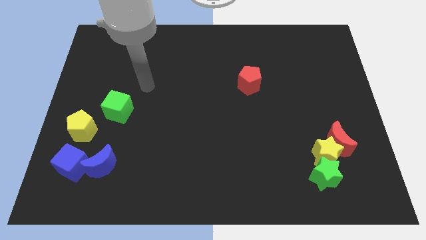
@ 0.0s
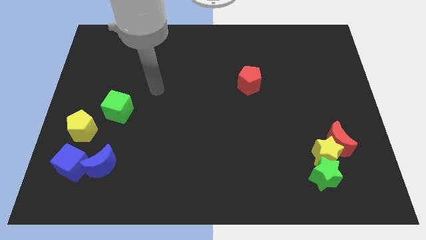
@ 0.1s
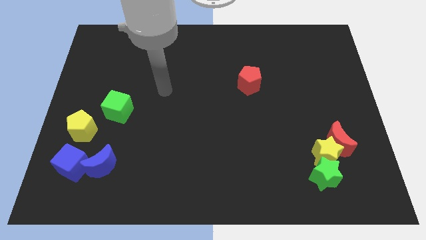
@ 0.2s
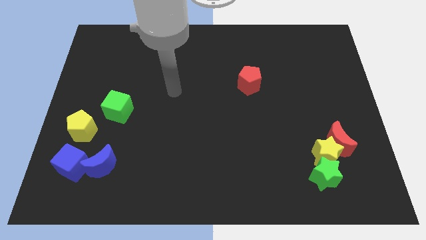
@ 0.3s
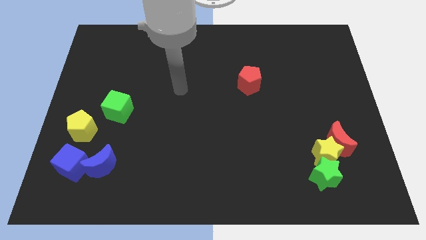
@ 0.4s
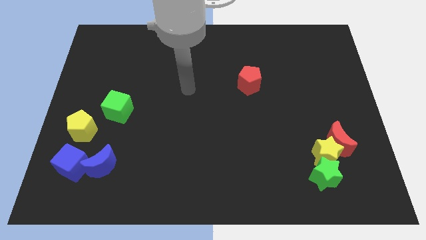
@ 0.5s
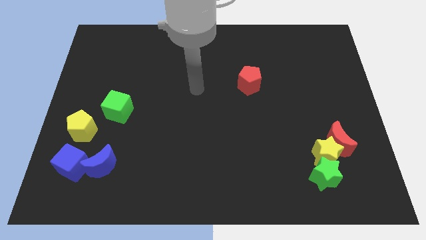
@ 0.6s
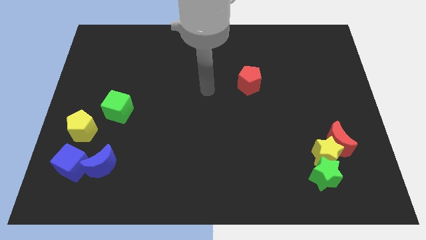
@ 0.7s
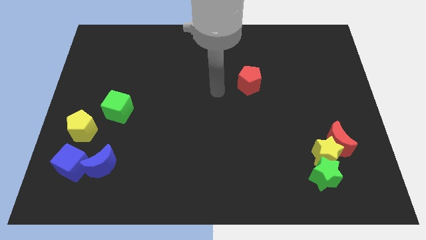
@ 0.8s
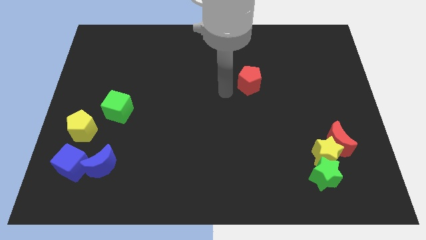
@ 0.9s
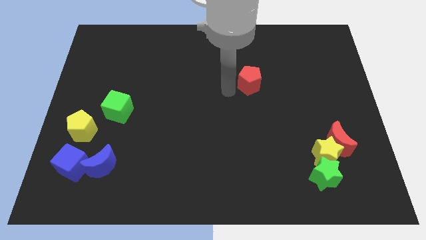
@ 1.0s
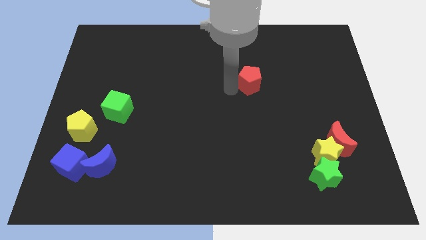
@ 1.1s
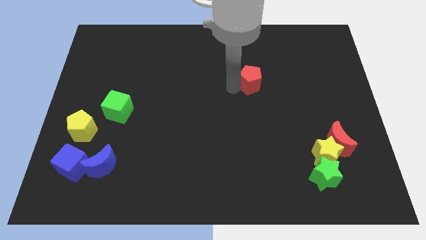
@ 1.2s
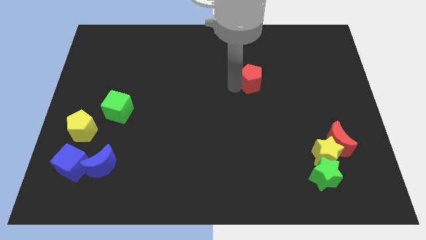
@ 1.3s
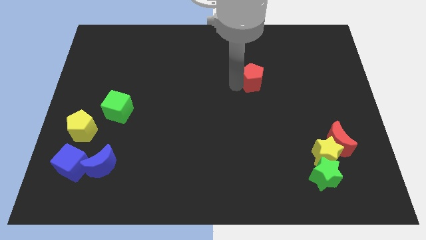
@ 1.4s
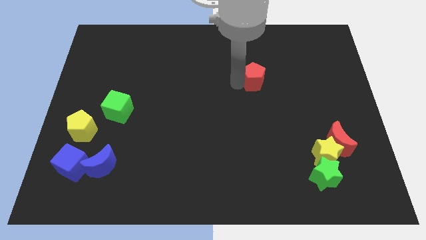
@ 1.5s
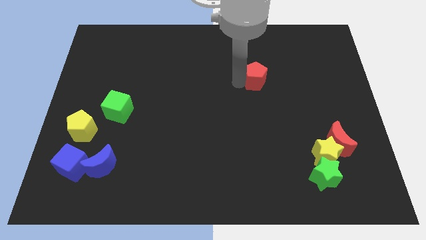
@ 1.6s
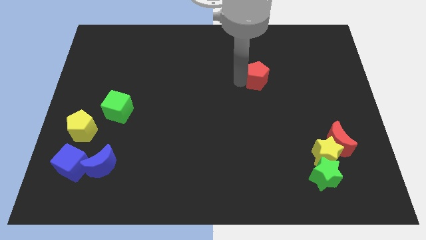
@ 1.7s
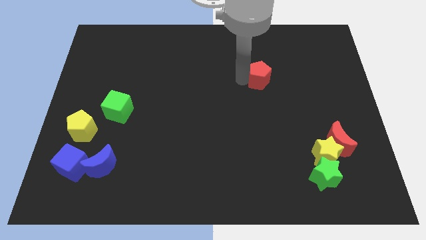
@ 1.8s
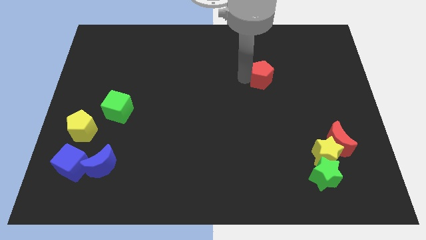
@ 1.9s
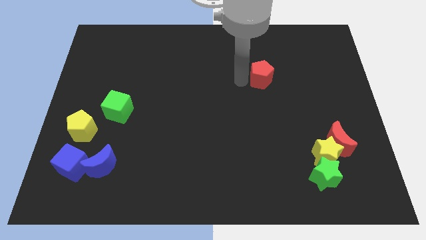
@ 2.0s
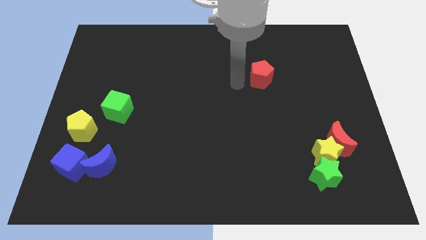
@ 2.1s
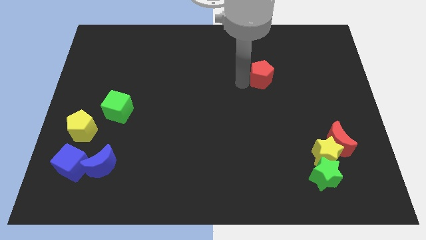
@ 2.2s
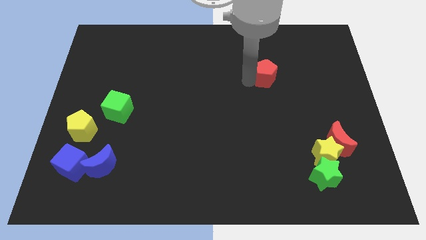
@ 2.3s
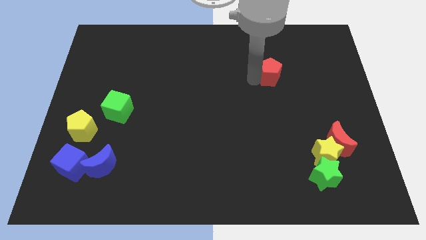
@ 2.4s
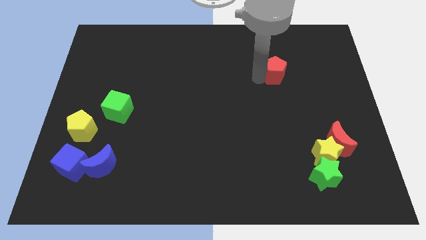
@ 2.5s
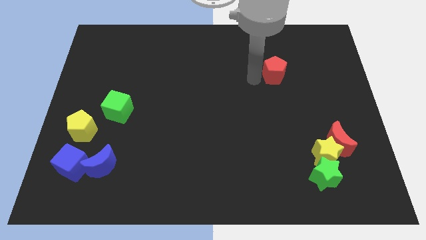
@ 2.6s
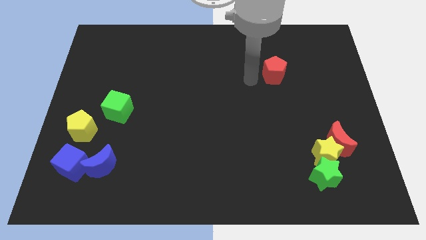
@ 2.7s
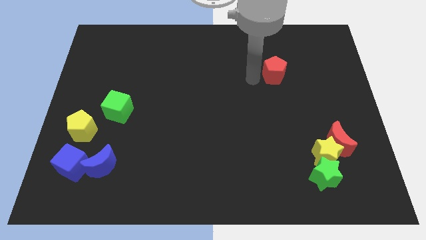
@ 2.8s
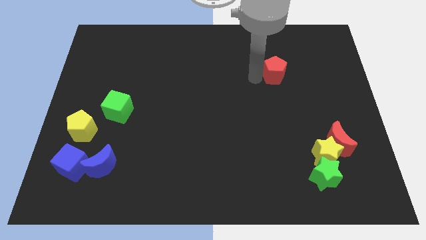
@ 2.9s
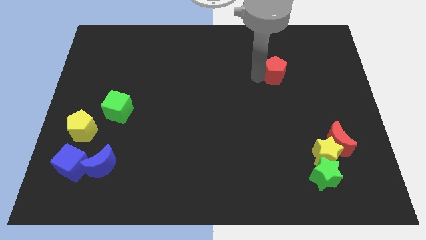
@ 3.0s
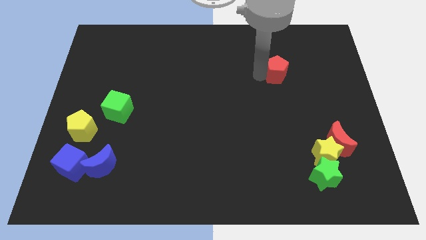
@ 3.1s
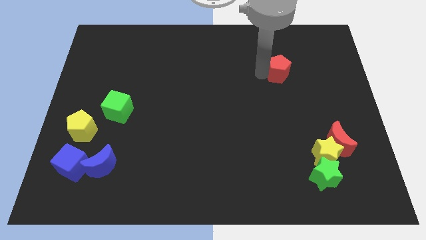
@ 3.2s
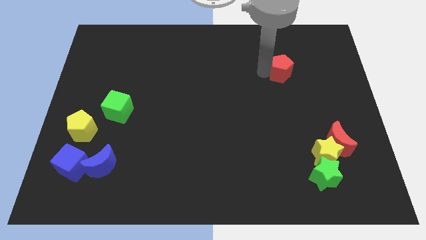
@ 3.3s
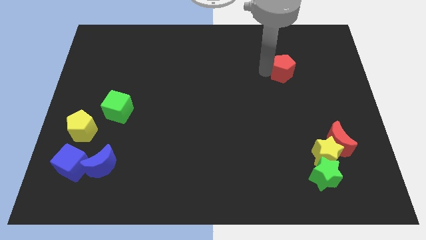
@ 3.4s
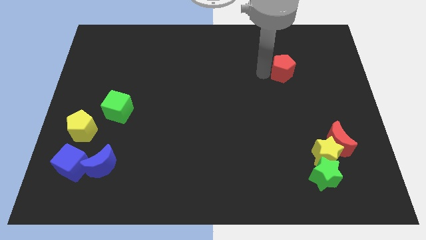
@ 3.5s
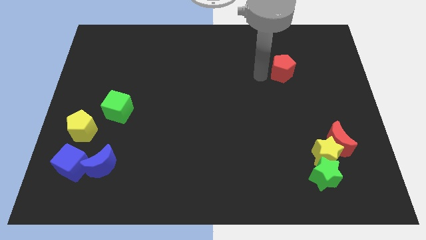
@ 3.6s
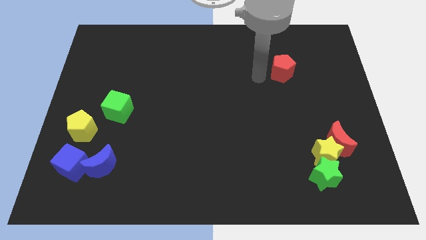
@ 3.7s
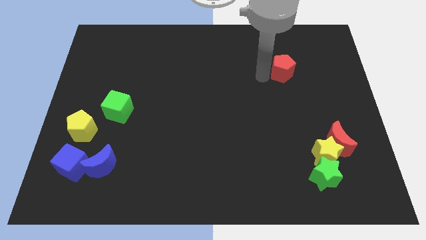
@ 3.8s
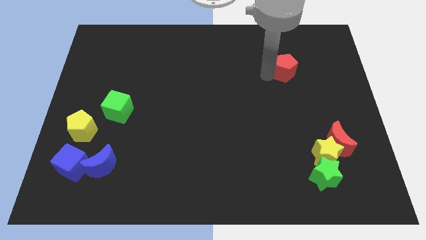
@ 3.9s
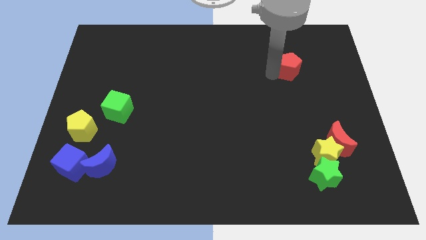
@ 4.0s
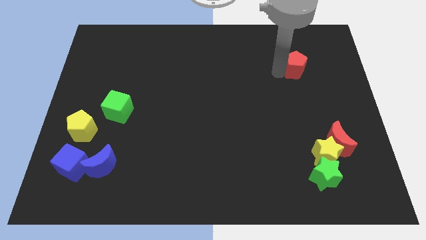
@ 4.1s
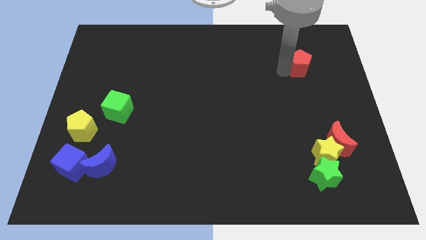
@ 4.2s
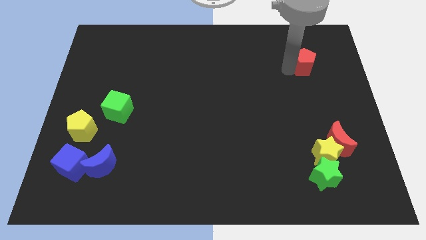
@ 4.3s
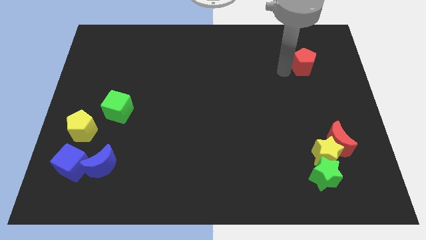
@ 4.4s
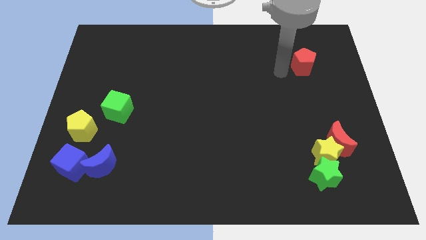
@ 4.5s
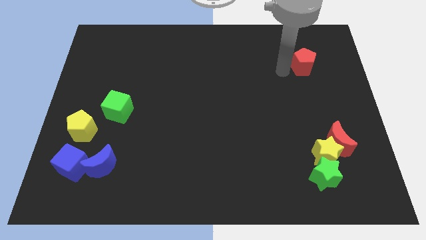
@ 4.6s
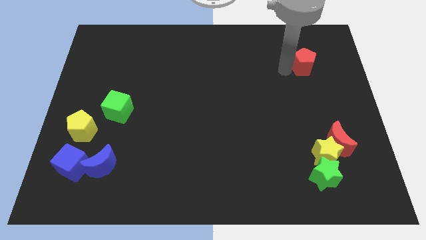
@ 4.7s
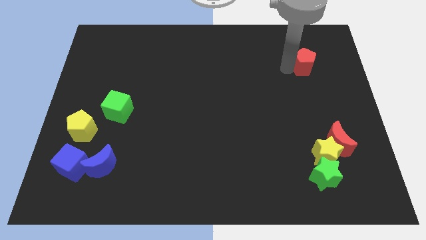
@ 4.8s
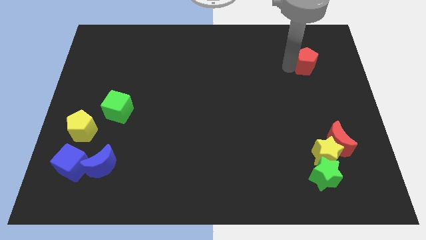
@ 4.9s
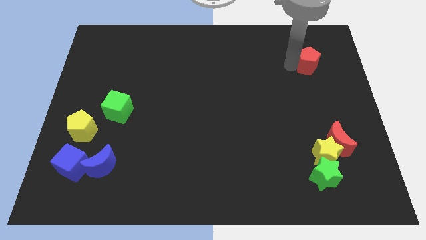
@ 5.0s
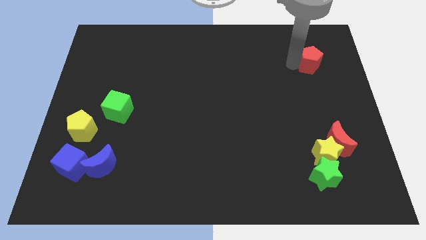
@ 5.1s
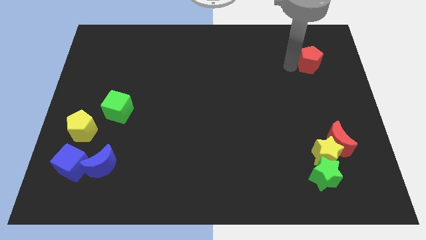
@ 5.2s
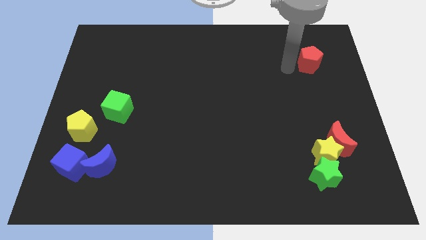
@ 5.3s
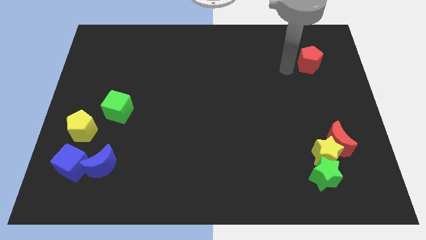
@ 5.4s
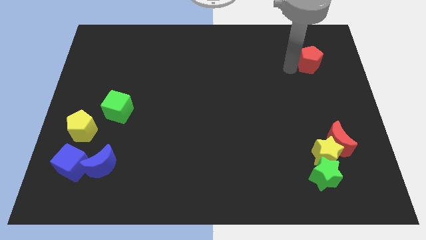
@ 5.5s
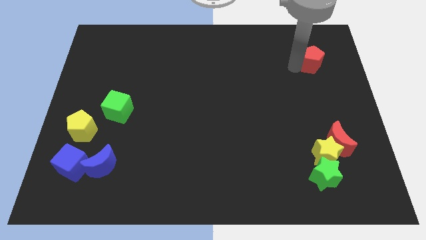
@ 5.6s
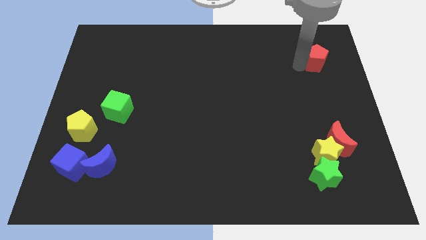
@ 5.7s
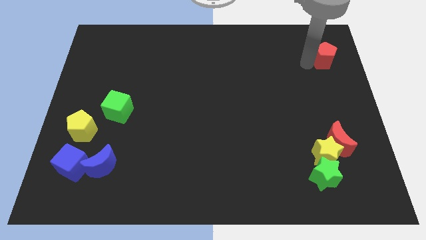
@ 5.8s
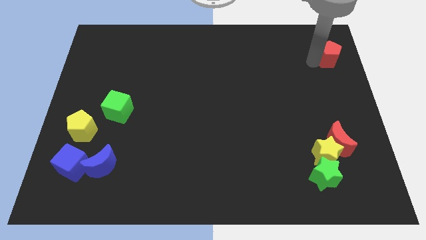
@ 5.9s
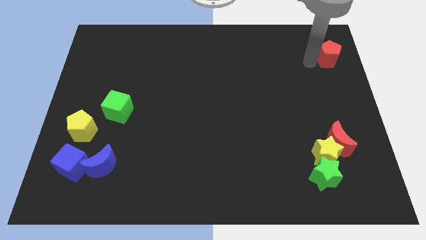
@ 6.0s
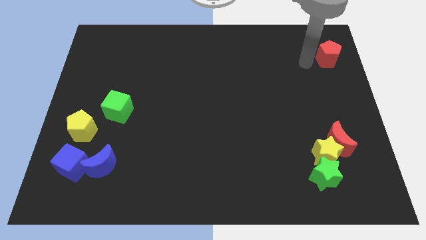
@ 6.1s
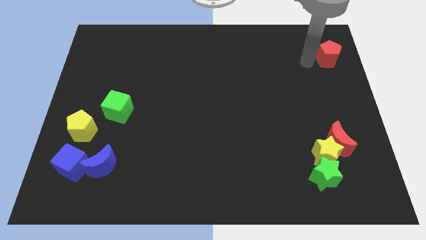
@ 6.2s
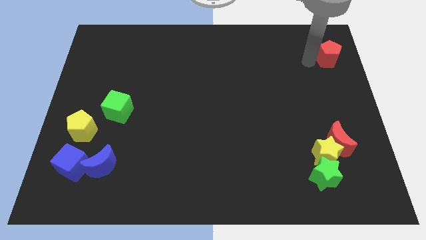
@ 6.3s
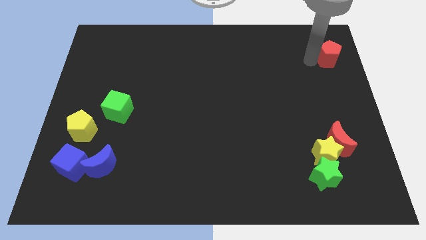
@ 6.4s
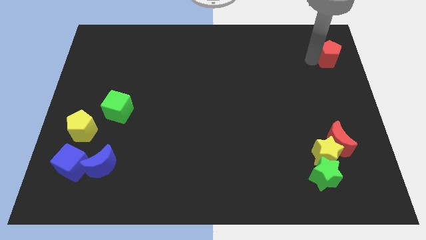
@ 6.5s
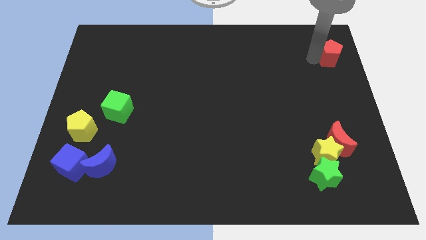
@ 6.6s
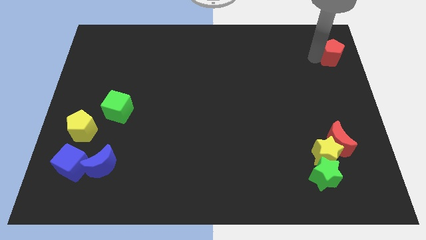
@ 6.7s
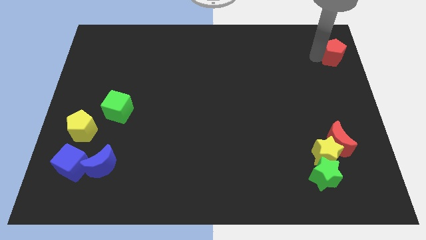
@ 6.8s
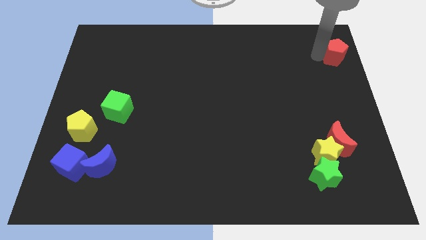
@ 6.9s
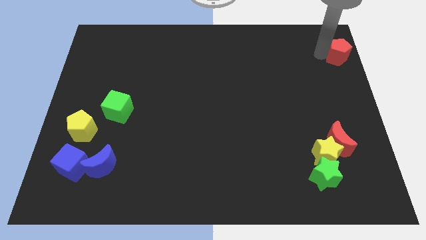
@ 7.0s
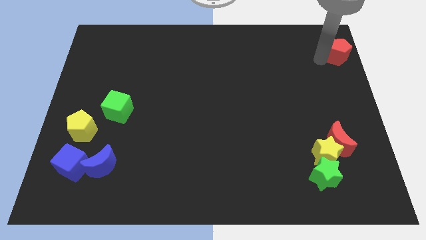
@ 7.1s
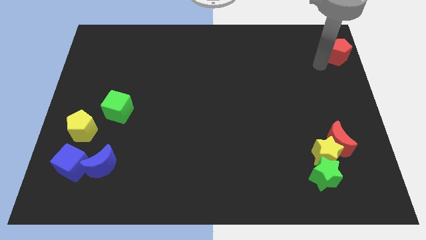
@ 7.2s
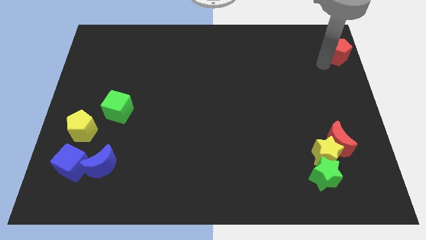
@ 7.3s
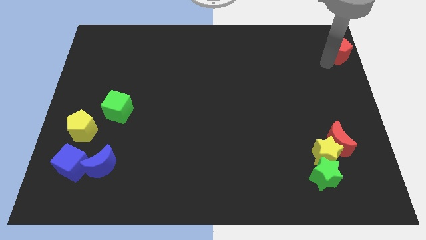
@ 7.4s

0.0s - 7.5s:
slide the red pentagon to the top right of the board
